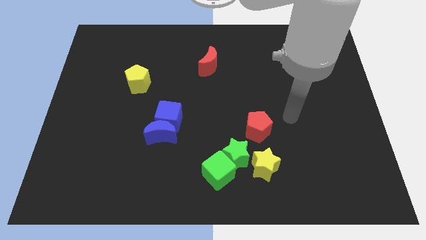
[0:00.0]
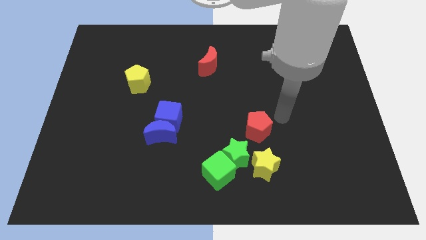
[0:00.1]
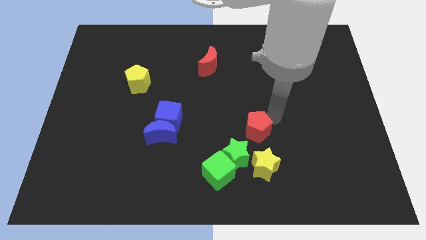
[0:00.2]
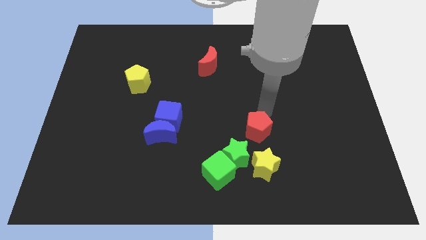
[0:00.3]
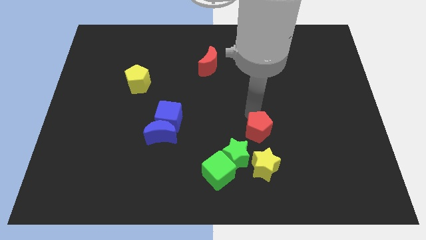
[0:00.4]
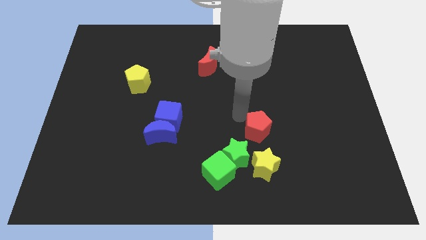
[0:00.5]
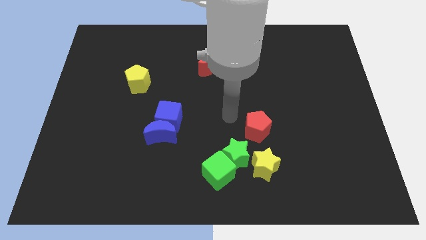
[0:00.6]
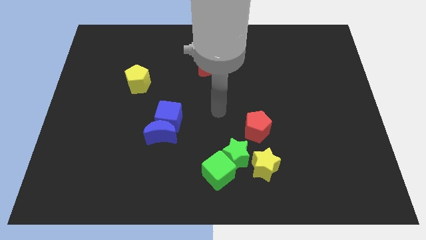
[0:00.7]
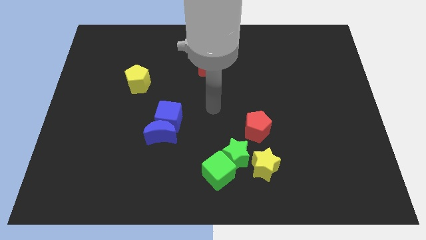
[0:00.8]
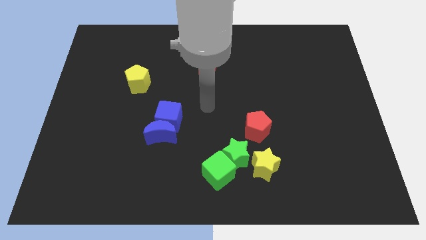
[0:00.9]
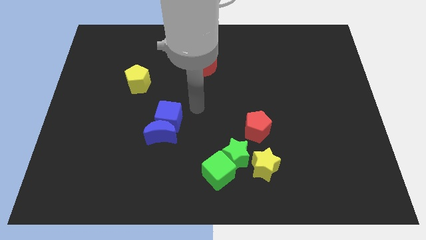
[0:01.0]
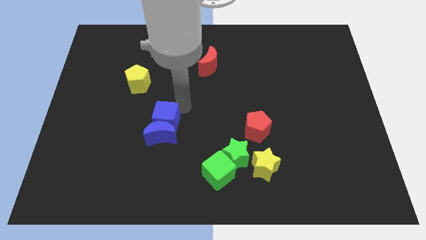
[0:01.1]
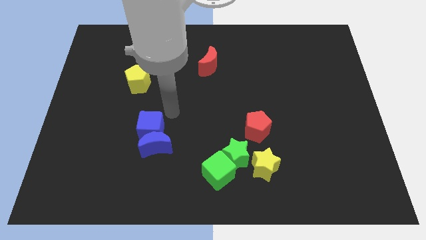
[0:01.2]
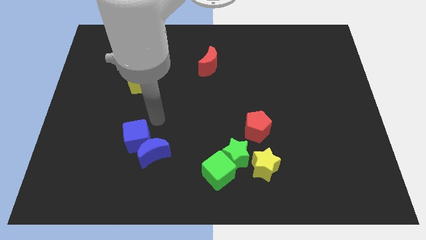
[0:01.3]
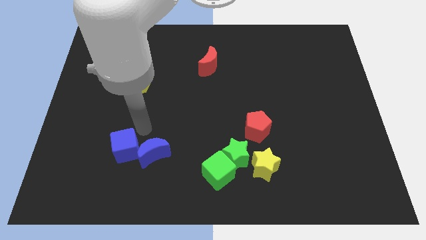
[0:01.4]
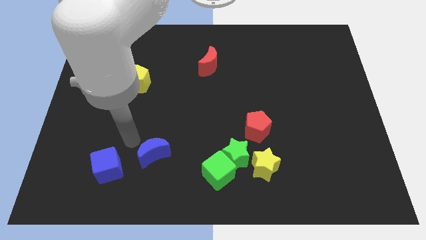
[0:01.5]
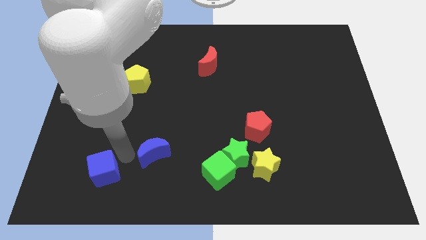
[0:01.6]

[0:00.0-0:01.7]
move the blue moon away from the blue cube

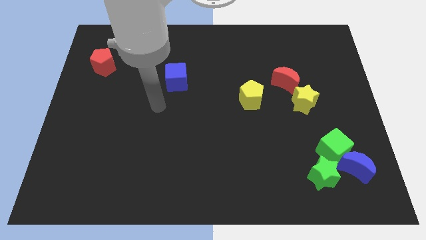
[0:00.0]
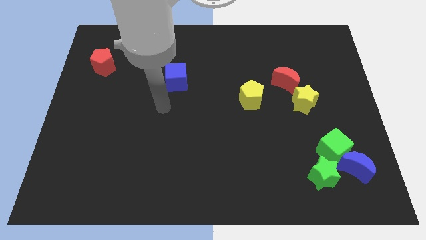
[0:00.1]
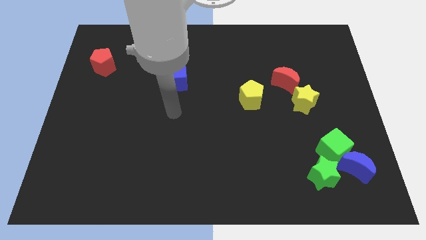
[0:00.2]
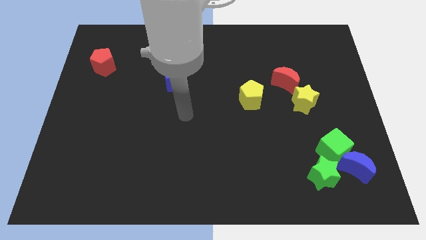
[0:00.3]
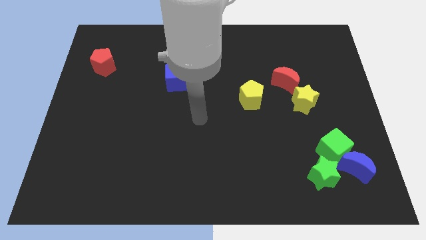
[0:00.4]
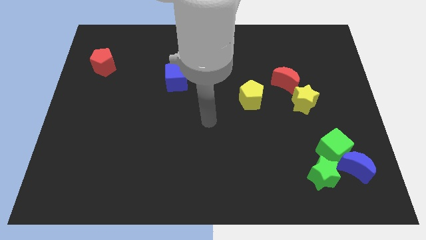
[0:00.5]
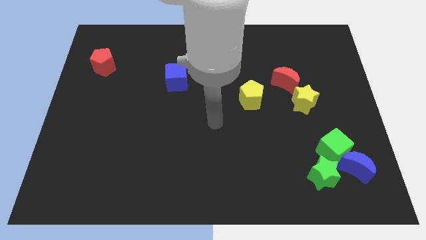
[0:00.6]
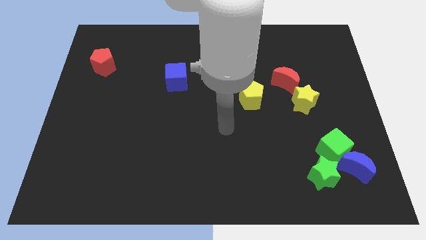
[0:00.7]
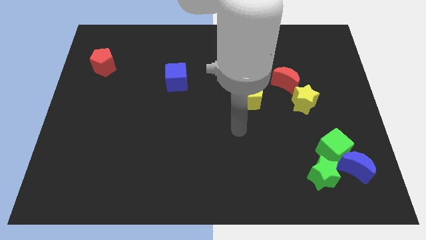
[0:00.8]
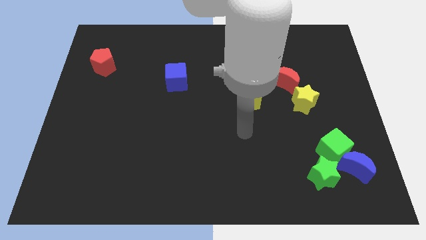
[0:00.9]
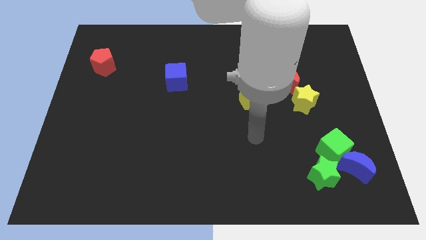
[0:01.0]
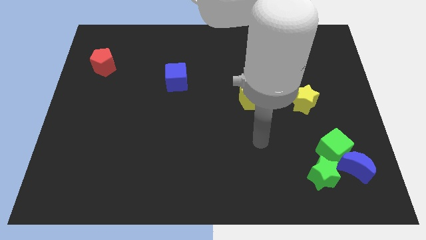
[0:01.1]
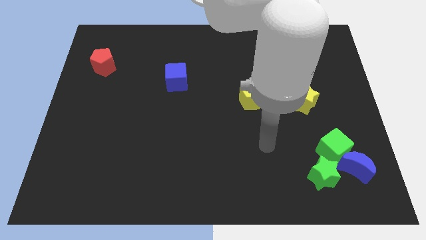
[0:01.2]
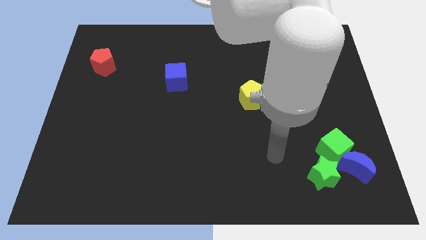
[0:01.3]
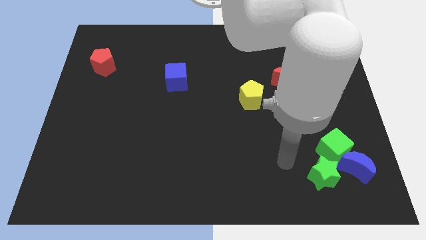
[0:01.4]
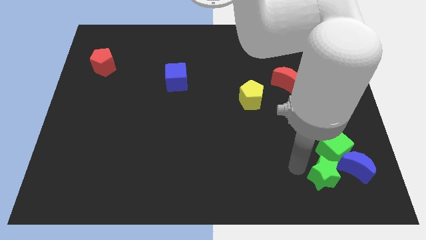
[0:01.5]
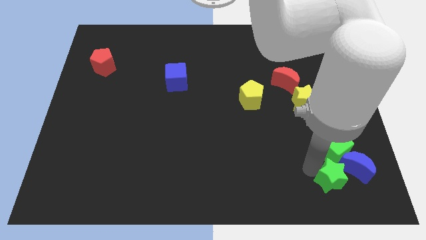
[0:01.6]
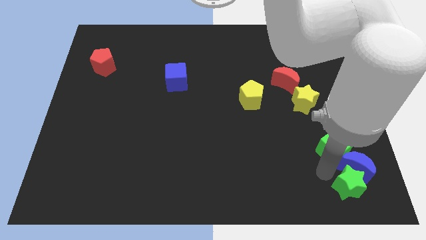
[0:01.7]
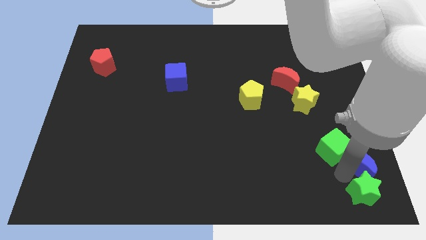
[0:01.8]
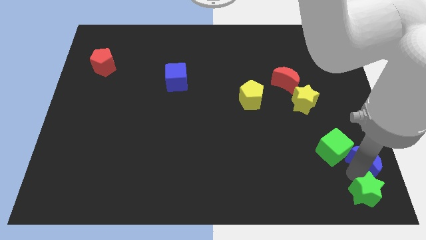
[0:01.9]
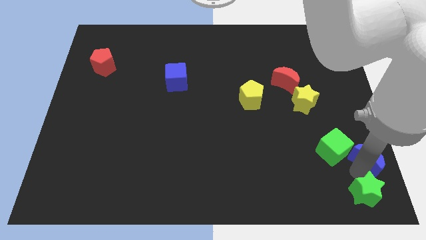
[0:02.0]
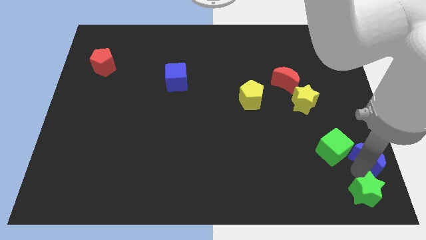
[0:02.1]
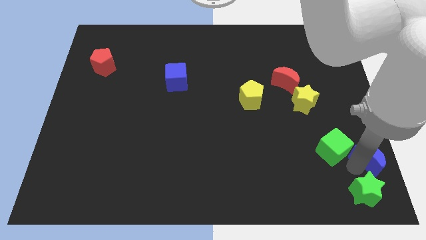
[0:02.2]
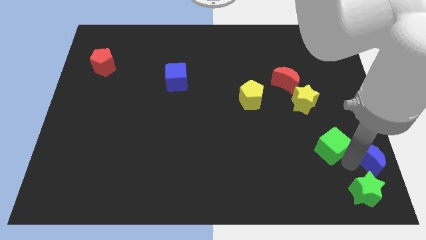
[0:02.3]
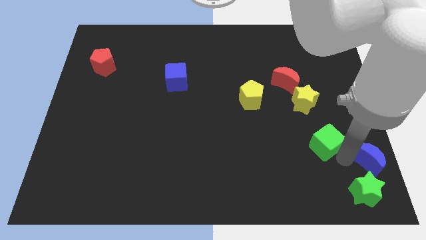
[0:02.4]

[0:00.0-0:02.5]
move the green cube away from the blue moon and green star

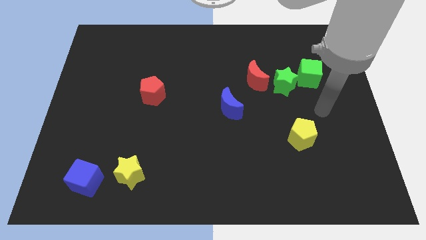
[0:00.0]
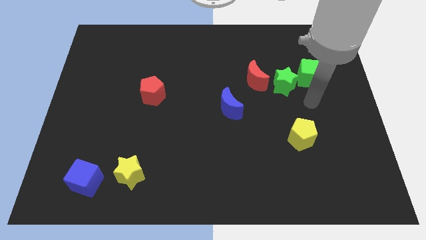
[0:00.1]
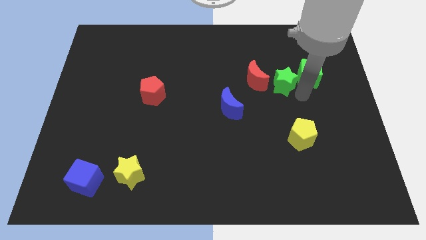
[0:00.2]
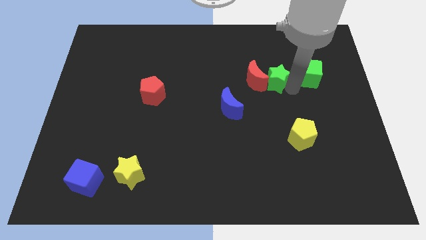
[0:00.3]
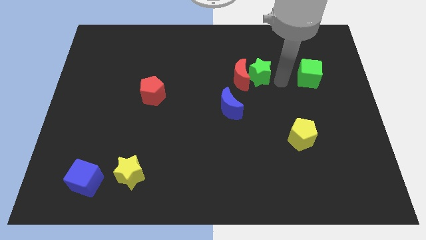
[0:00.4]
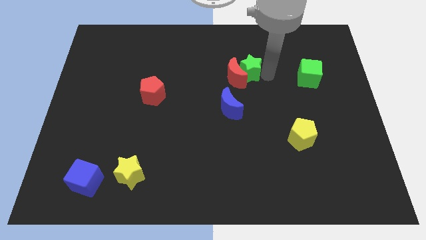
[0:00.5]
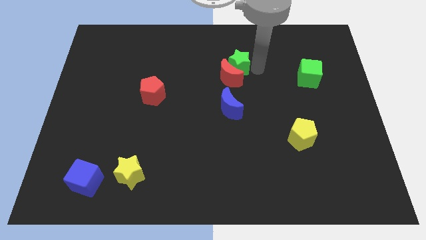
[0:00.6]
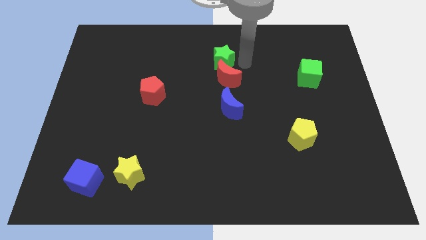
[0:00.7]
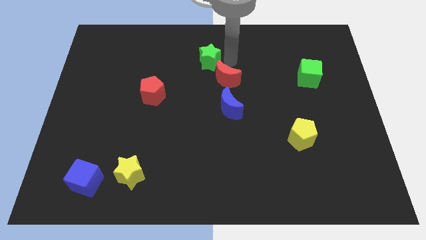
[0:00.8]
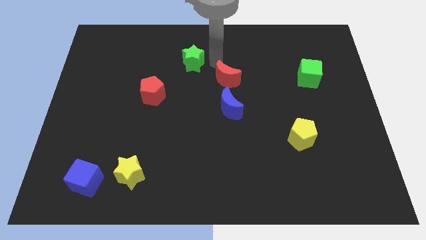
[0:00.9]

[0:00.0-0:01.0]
pull the red moon apart from the green star

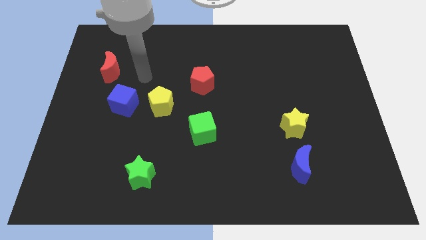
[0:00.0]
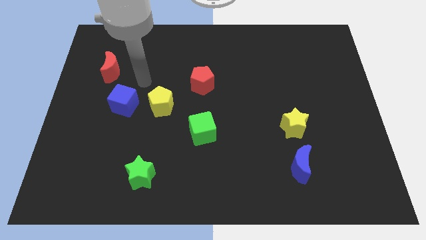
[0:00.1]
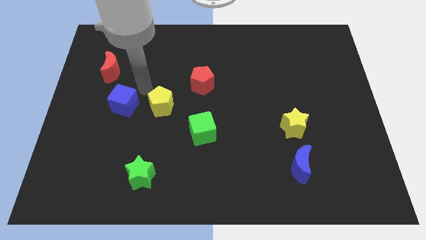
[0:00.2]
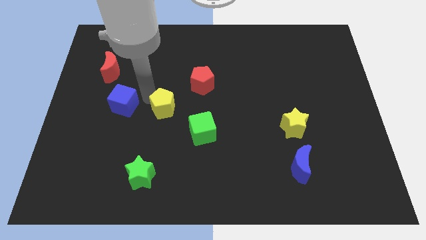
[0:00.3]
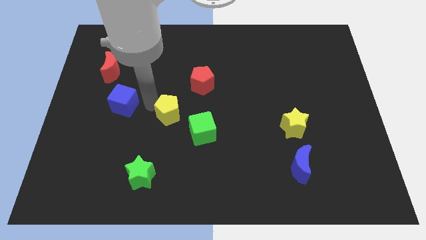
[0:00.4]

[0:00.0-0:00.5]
pull the blue cube apart from the yellow pentagon

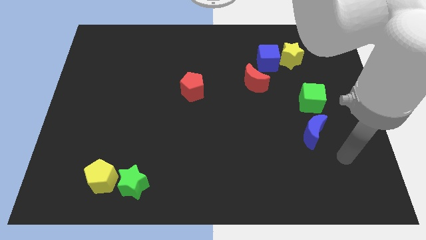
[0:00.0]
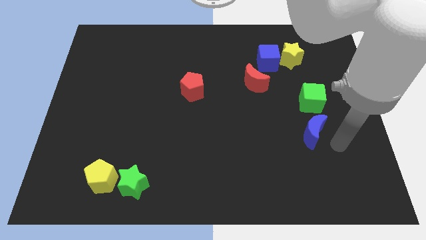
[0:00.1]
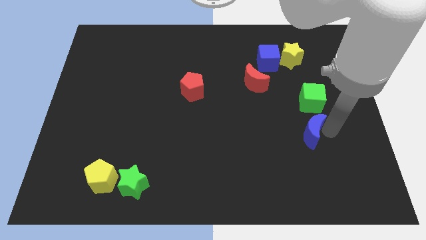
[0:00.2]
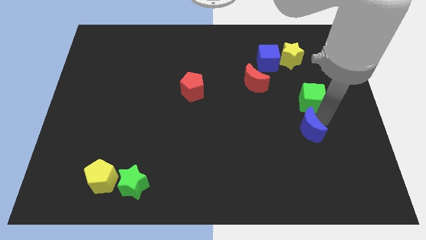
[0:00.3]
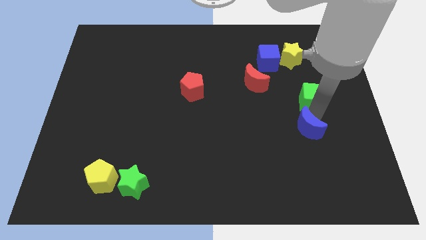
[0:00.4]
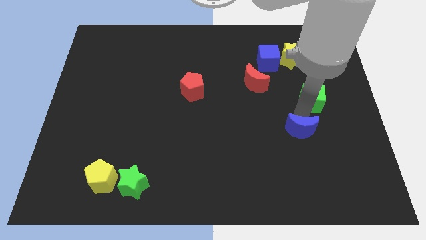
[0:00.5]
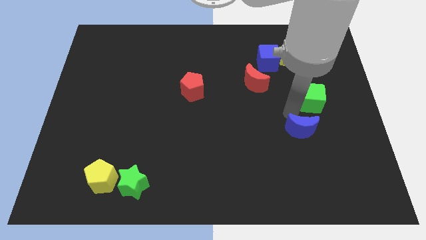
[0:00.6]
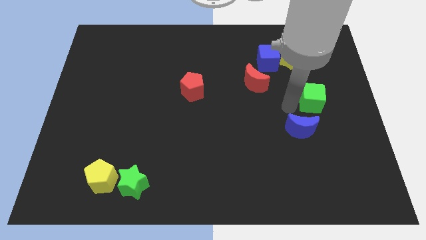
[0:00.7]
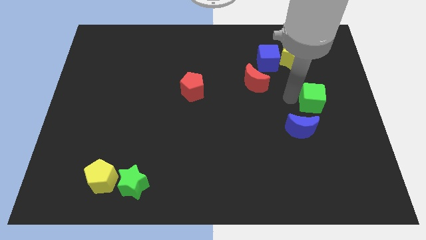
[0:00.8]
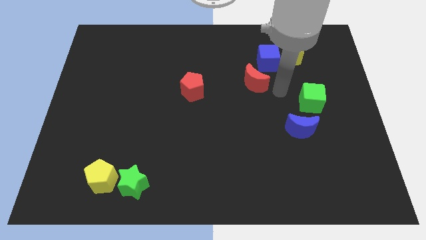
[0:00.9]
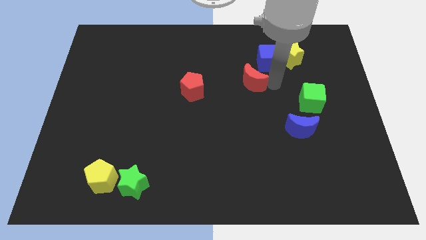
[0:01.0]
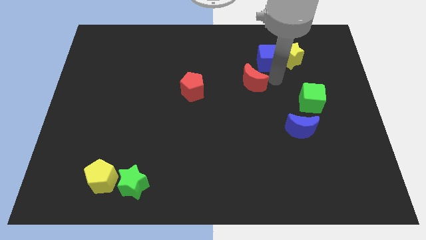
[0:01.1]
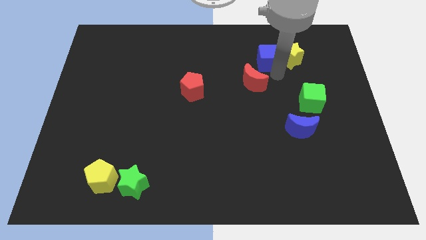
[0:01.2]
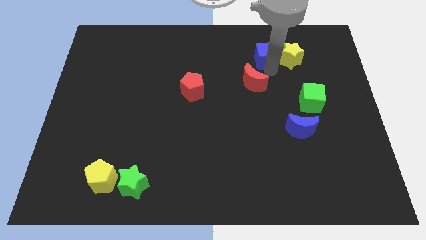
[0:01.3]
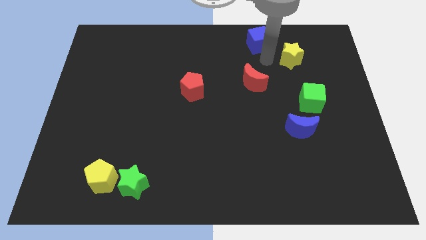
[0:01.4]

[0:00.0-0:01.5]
pull the yellow star apart from the blue cube

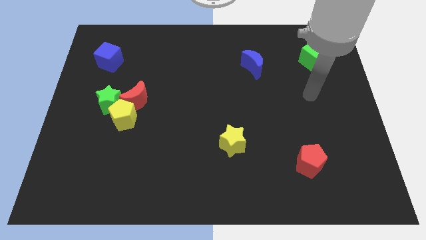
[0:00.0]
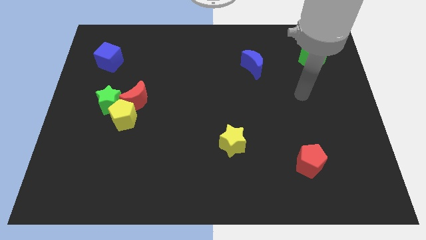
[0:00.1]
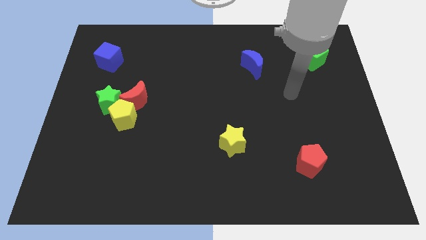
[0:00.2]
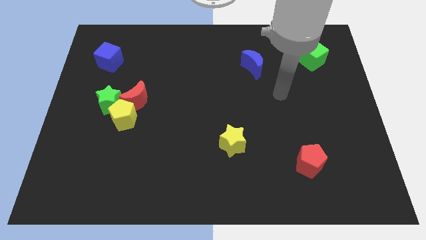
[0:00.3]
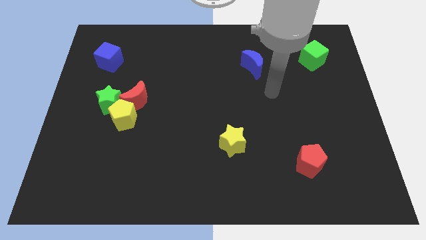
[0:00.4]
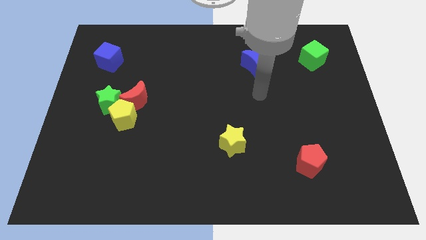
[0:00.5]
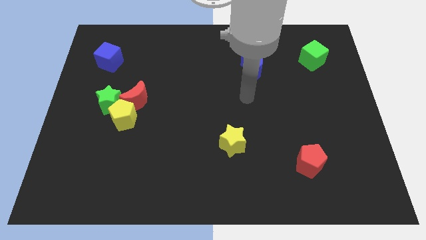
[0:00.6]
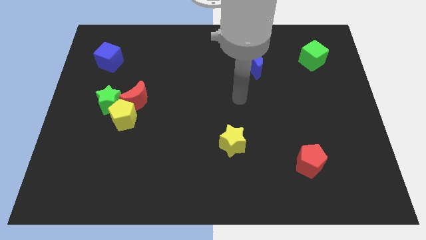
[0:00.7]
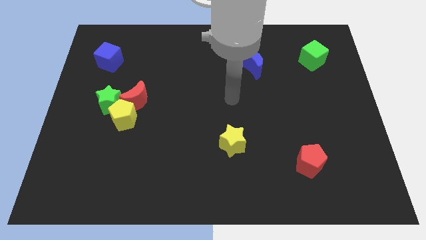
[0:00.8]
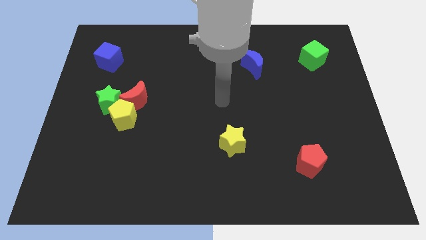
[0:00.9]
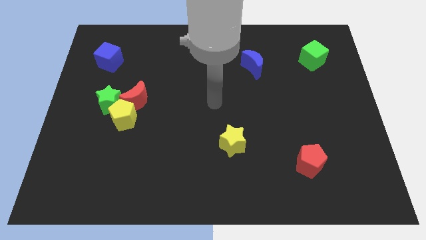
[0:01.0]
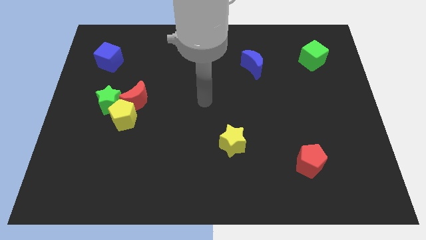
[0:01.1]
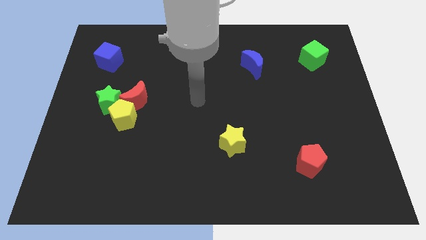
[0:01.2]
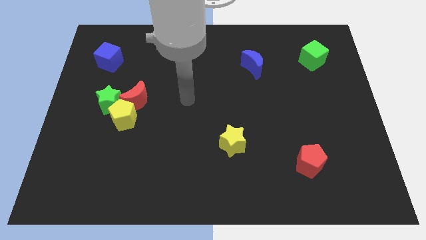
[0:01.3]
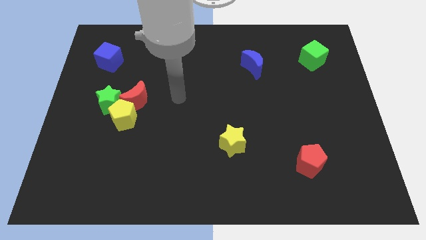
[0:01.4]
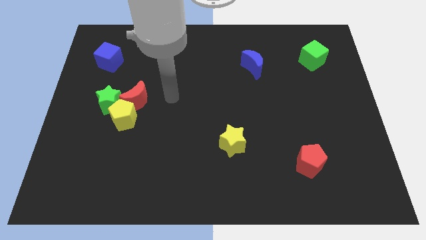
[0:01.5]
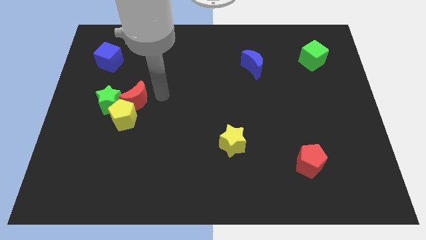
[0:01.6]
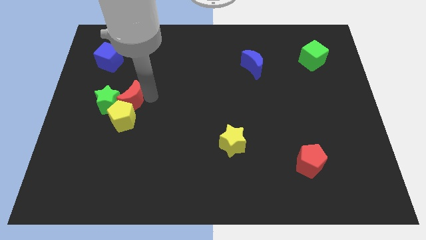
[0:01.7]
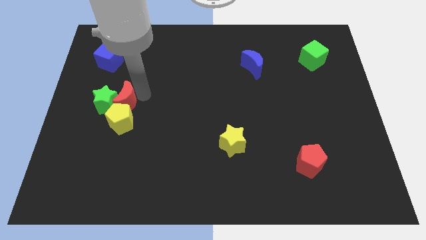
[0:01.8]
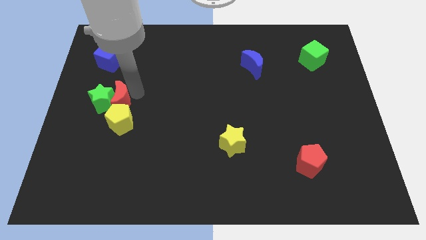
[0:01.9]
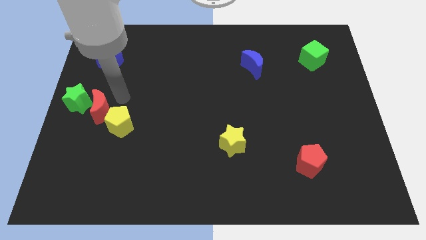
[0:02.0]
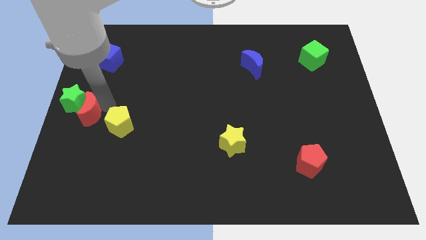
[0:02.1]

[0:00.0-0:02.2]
separate the yellow pentagon from the red moon and green star
